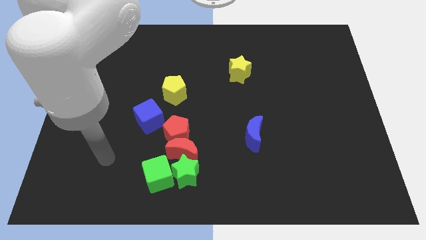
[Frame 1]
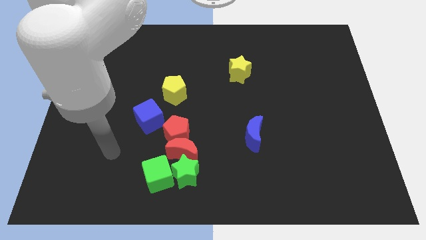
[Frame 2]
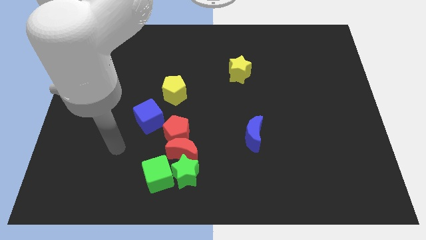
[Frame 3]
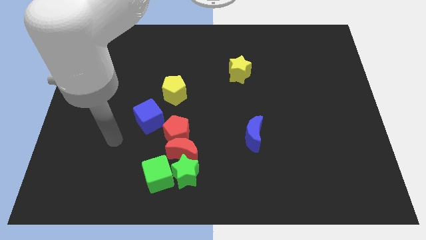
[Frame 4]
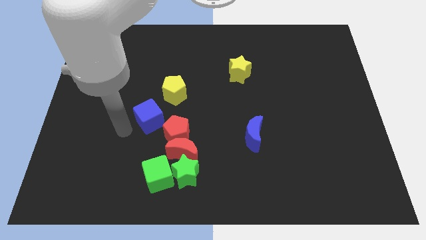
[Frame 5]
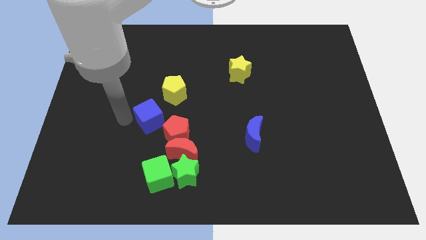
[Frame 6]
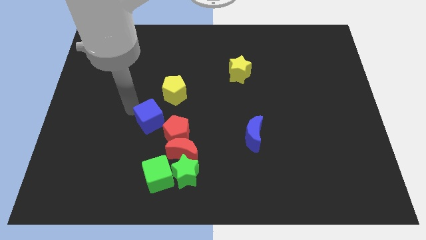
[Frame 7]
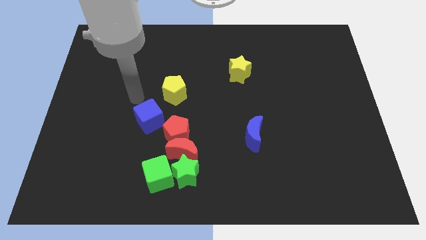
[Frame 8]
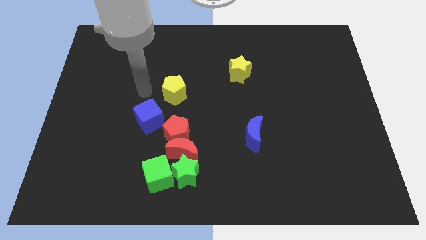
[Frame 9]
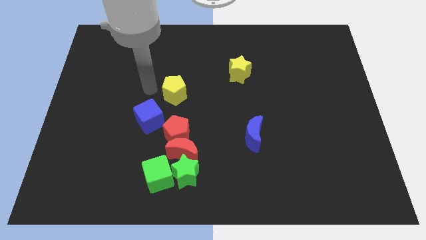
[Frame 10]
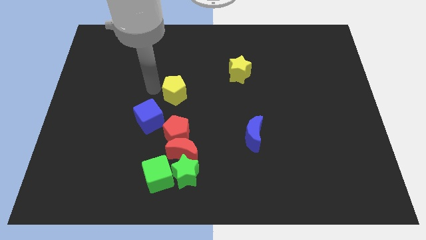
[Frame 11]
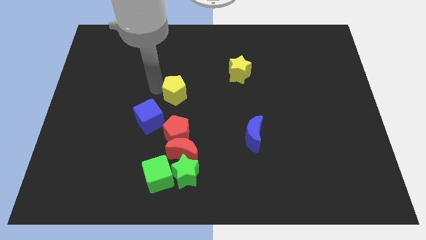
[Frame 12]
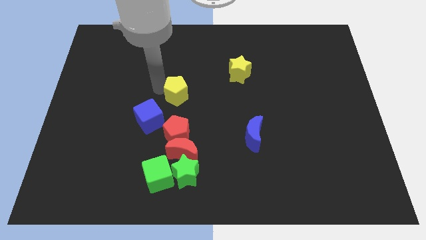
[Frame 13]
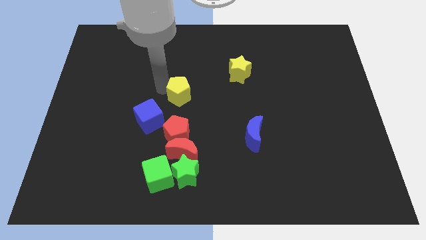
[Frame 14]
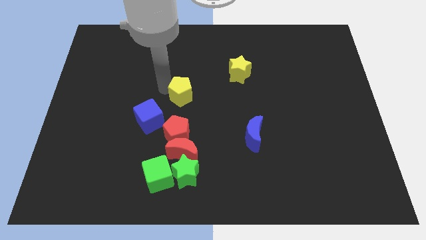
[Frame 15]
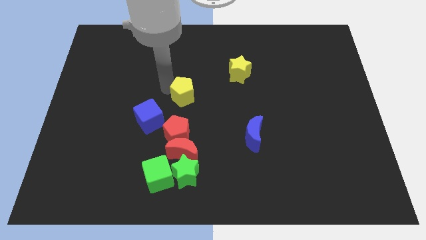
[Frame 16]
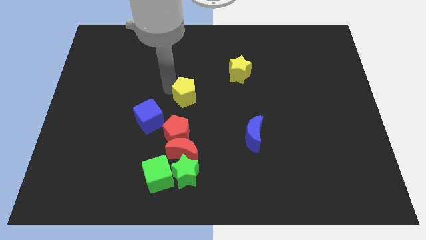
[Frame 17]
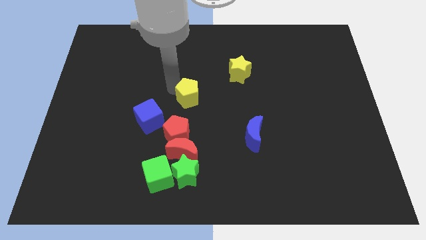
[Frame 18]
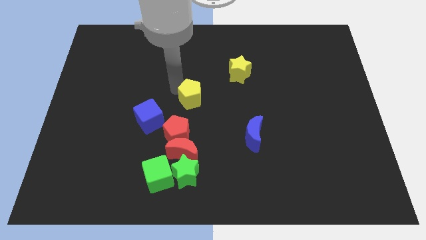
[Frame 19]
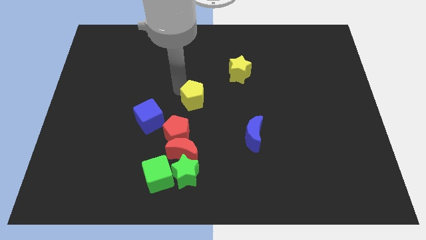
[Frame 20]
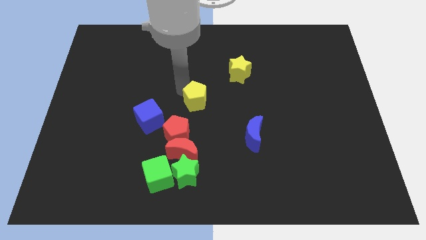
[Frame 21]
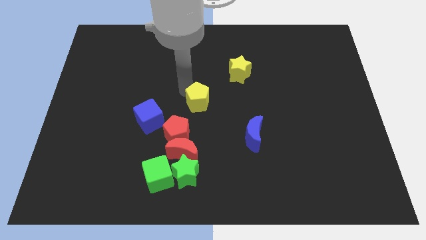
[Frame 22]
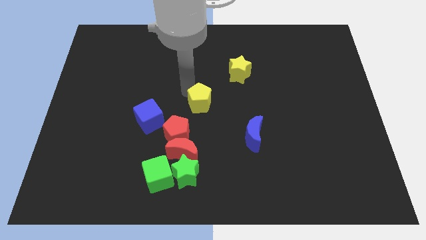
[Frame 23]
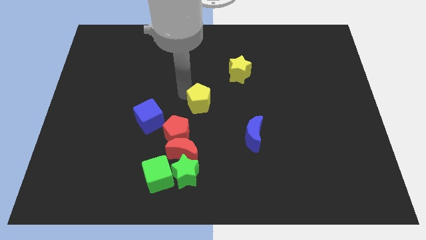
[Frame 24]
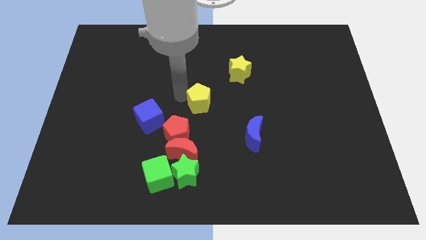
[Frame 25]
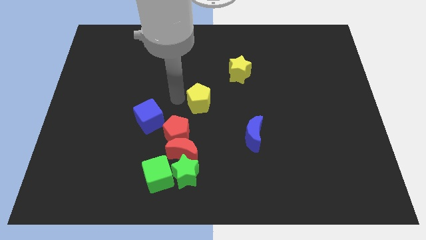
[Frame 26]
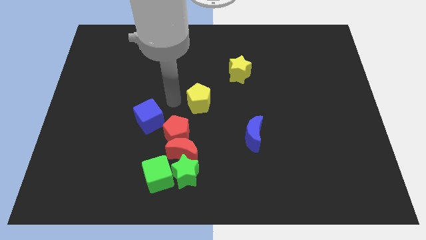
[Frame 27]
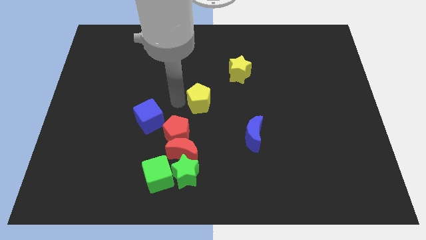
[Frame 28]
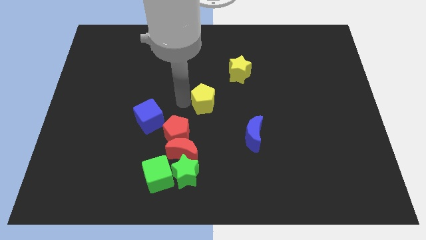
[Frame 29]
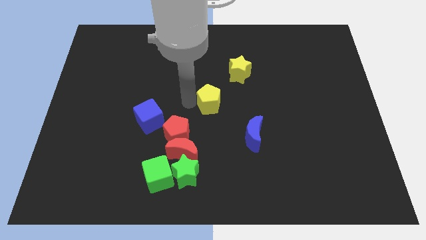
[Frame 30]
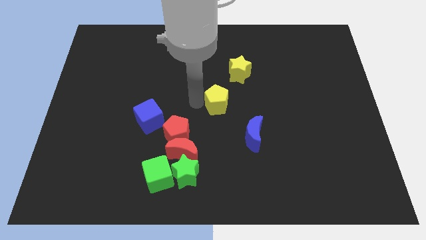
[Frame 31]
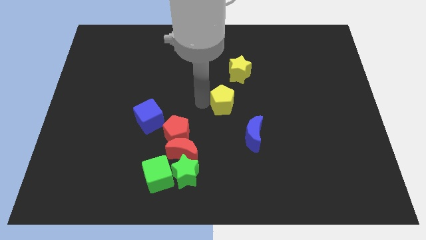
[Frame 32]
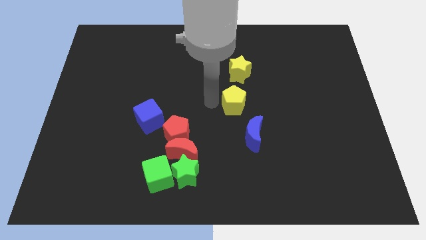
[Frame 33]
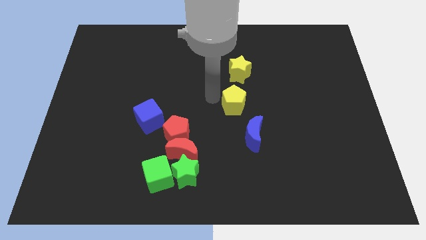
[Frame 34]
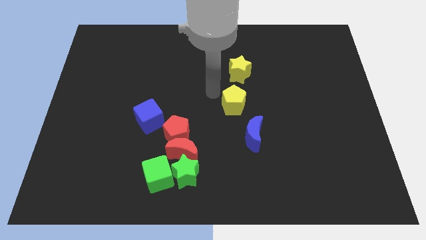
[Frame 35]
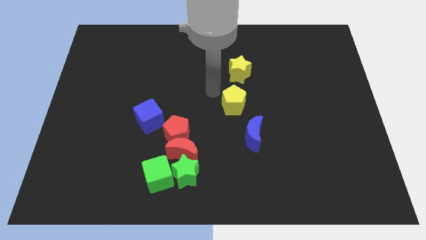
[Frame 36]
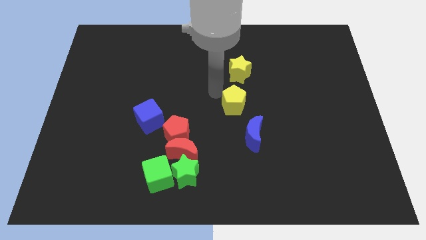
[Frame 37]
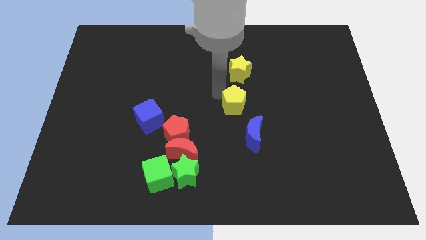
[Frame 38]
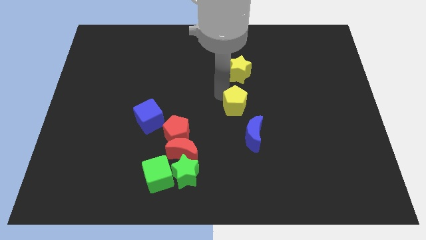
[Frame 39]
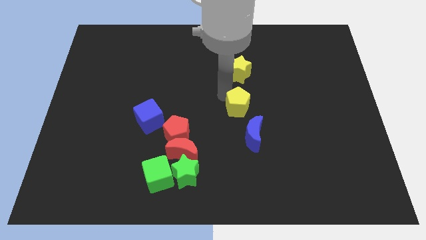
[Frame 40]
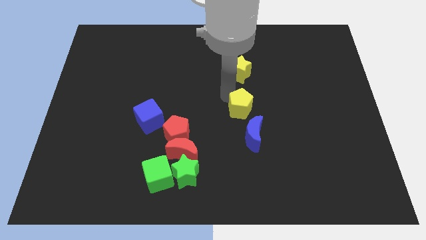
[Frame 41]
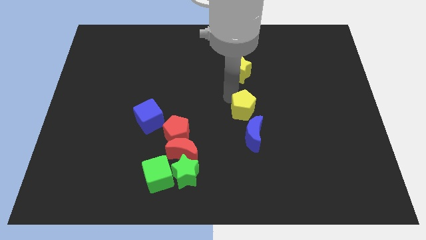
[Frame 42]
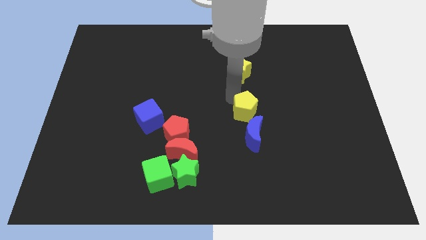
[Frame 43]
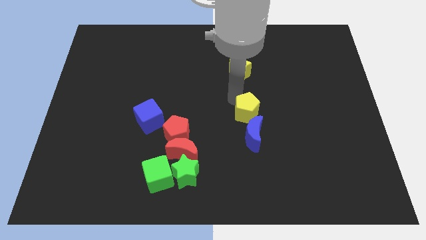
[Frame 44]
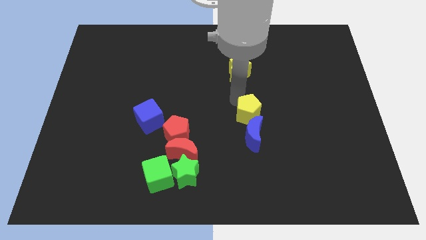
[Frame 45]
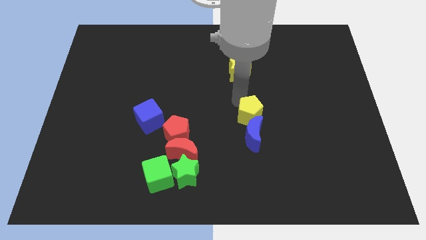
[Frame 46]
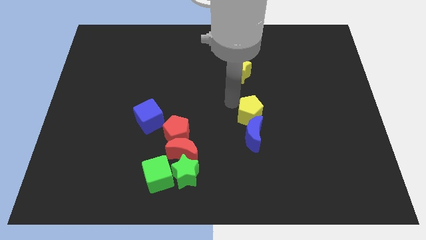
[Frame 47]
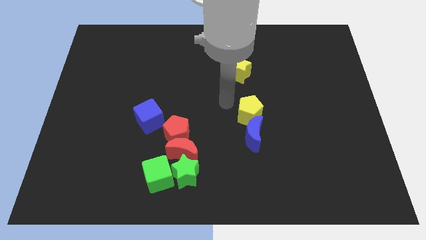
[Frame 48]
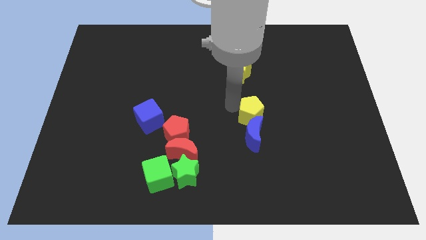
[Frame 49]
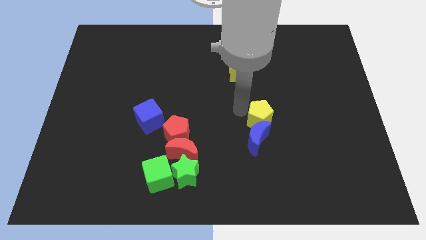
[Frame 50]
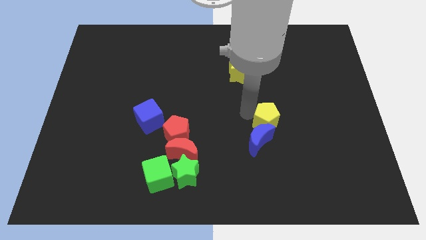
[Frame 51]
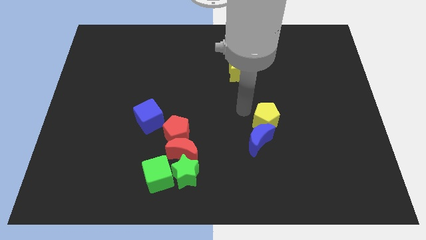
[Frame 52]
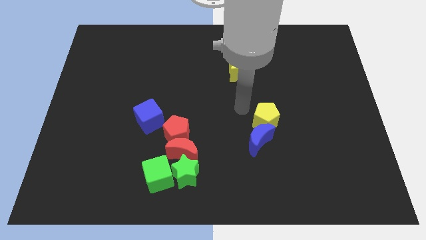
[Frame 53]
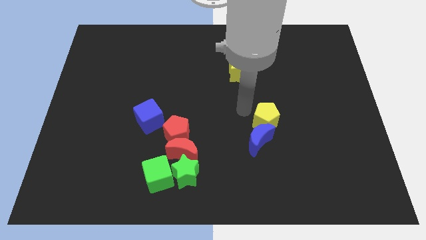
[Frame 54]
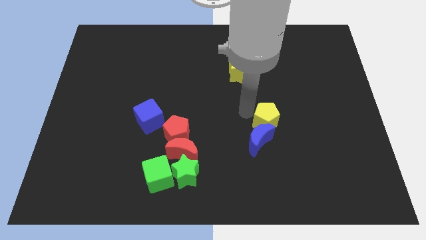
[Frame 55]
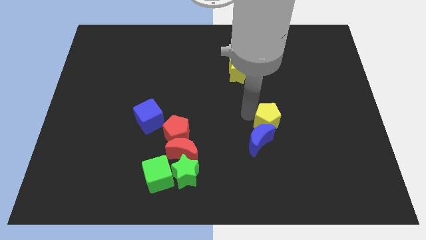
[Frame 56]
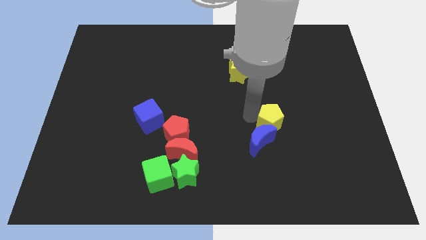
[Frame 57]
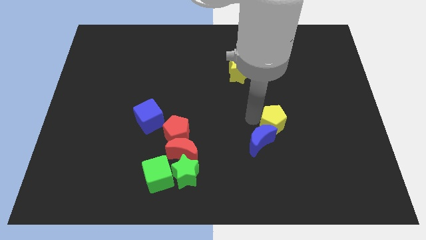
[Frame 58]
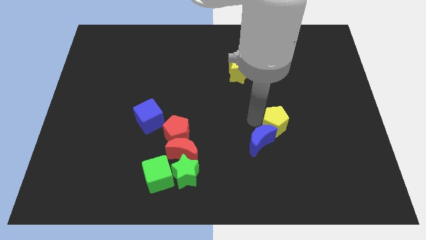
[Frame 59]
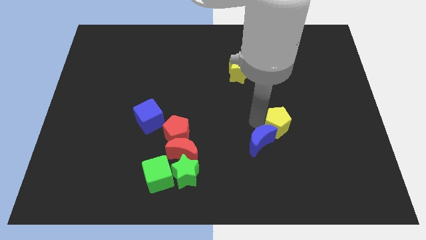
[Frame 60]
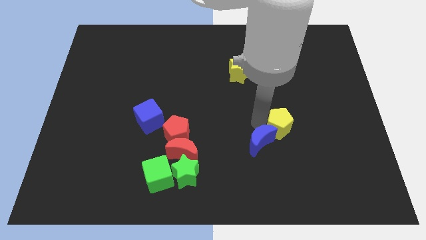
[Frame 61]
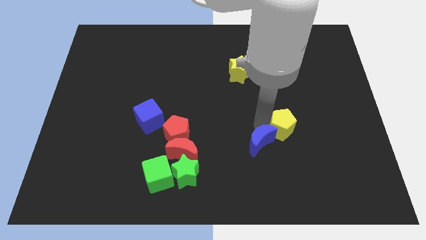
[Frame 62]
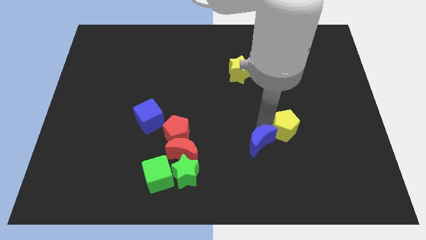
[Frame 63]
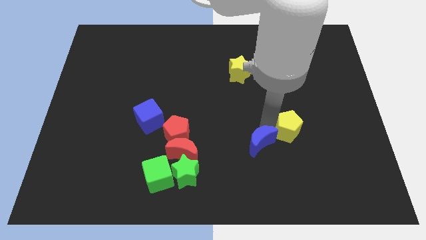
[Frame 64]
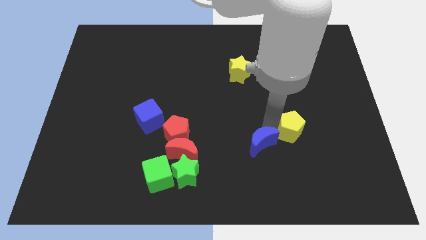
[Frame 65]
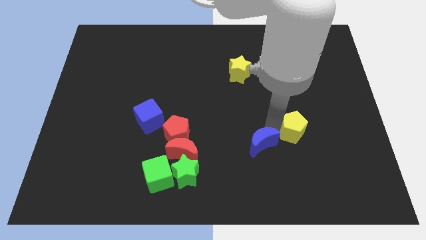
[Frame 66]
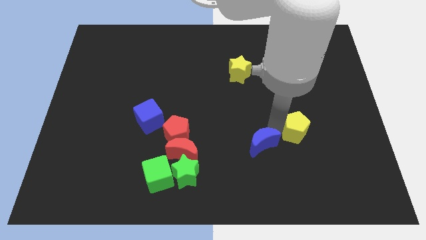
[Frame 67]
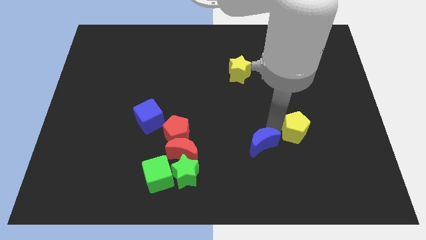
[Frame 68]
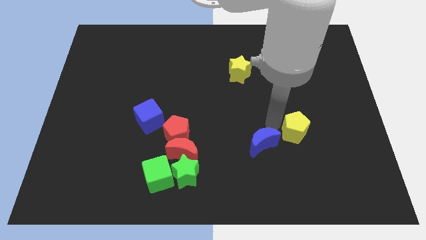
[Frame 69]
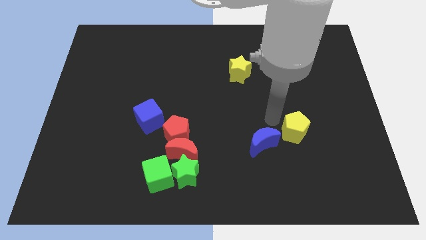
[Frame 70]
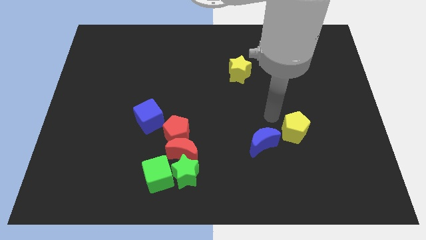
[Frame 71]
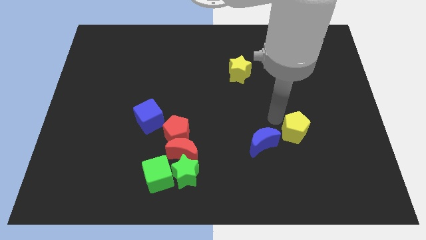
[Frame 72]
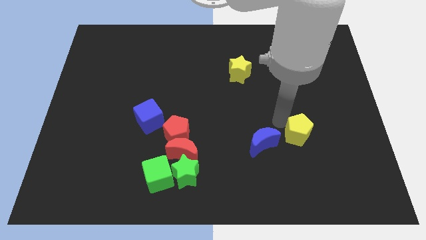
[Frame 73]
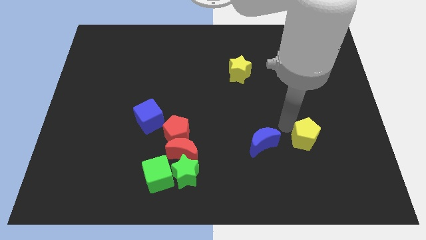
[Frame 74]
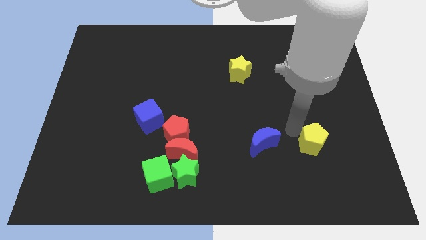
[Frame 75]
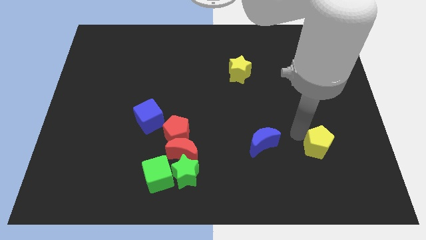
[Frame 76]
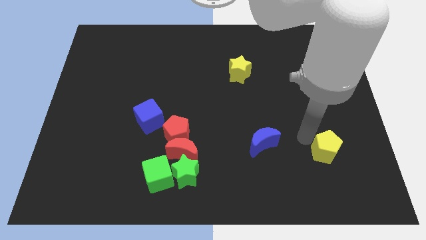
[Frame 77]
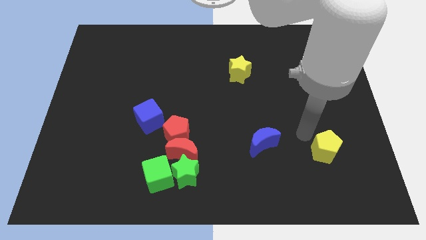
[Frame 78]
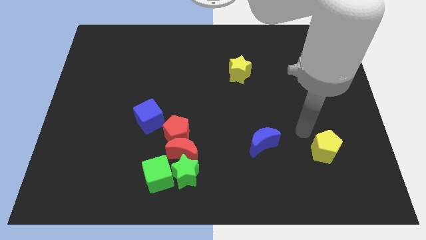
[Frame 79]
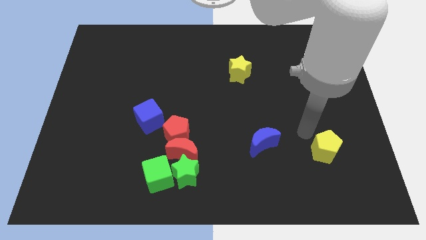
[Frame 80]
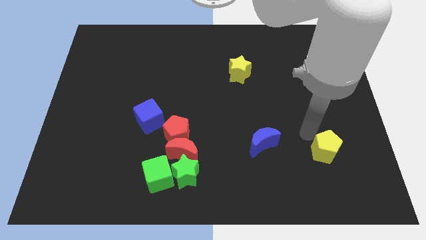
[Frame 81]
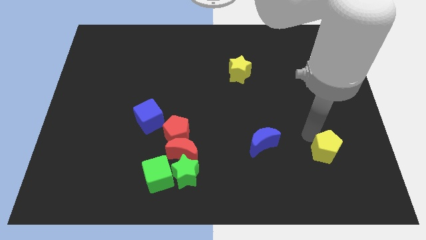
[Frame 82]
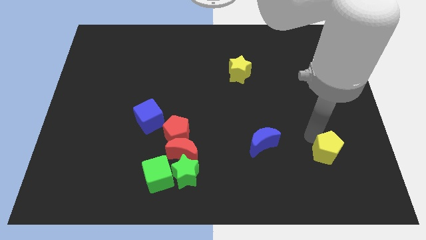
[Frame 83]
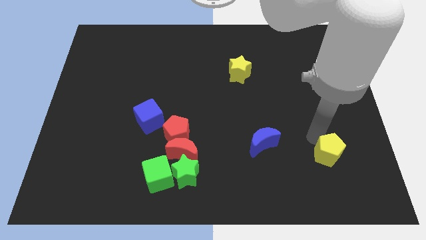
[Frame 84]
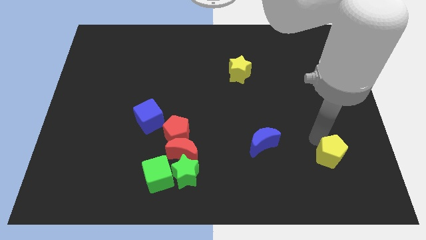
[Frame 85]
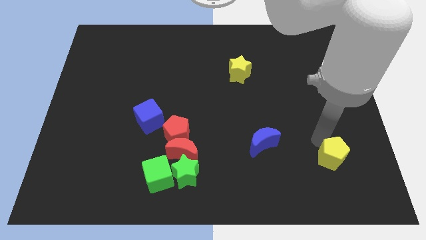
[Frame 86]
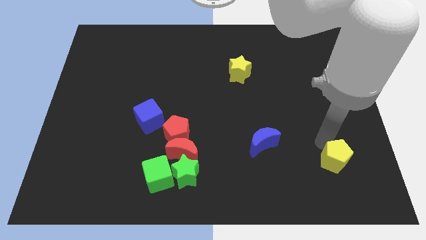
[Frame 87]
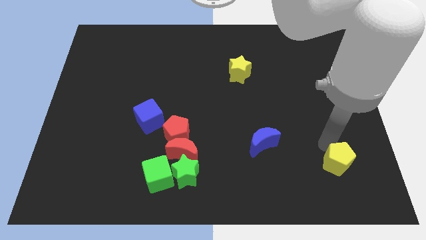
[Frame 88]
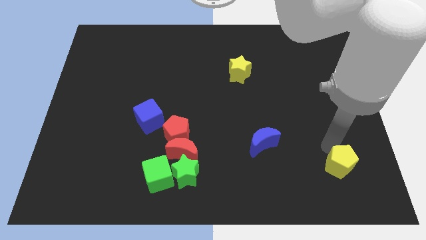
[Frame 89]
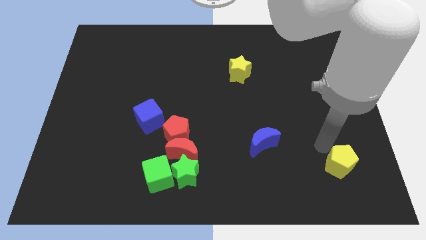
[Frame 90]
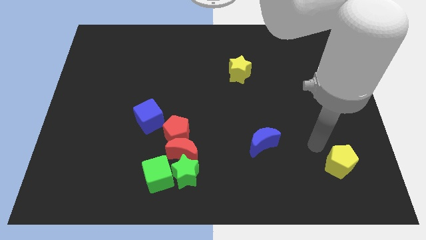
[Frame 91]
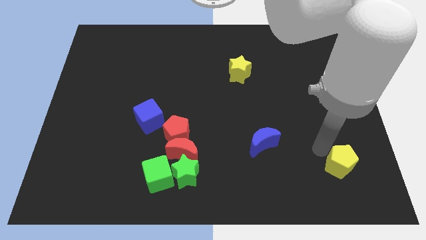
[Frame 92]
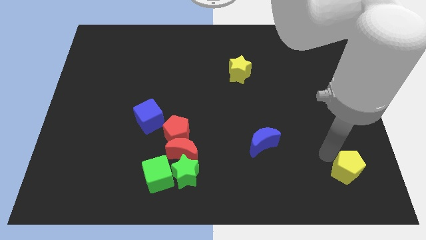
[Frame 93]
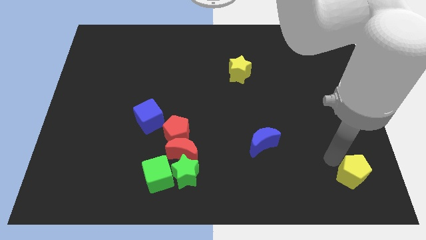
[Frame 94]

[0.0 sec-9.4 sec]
slide the yellow pentagon to the bottom right
